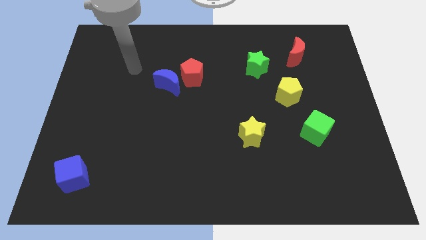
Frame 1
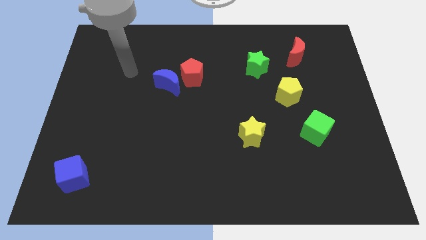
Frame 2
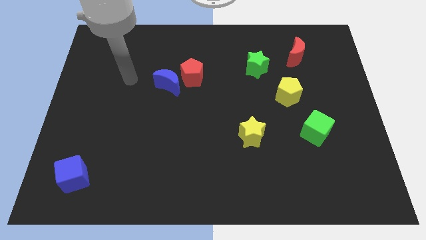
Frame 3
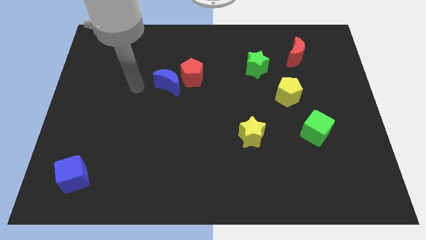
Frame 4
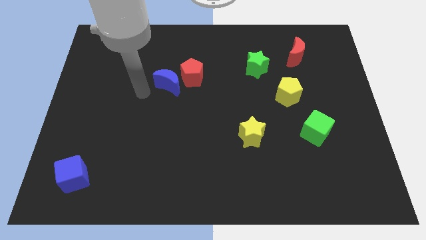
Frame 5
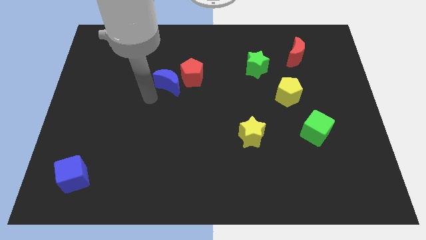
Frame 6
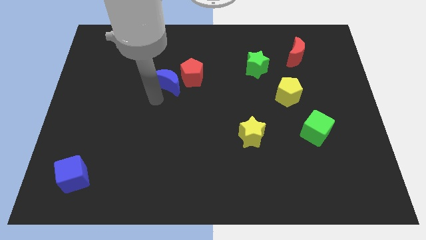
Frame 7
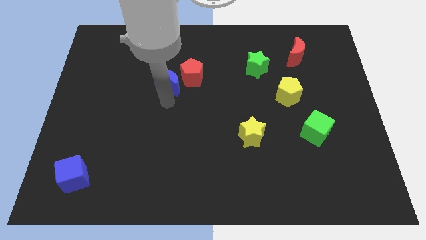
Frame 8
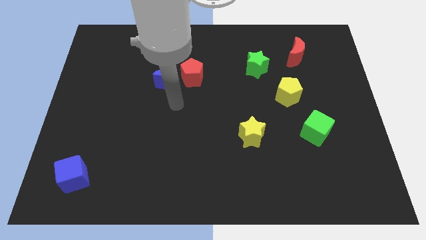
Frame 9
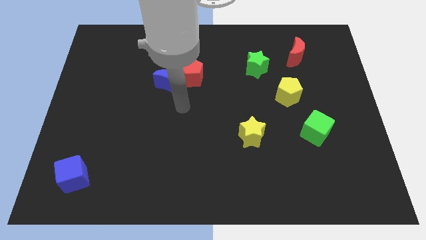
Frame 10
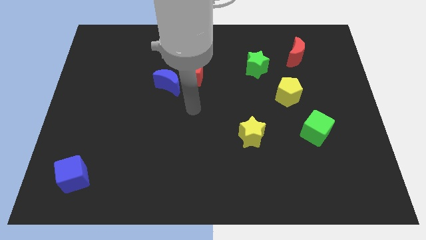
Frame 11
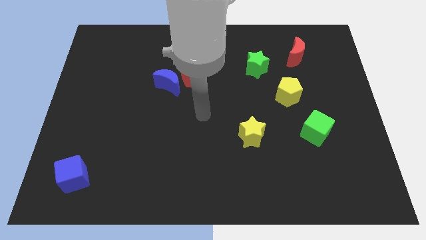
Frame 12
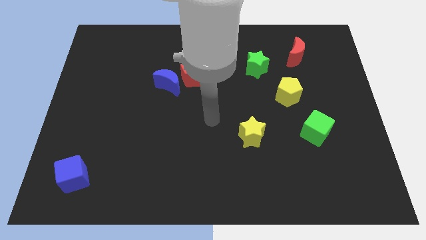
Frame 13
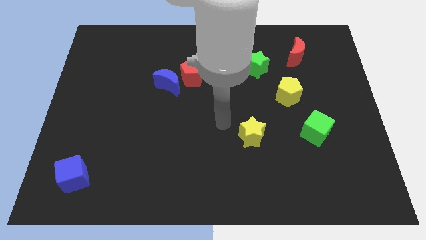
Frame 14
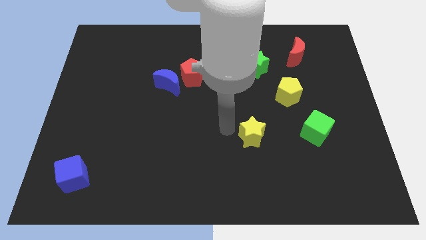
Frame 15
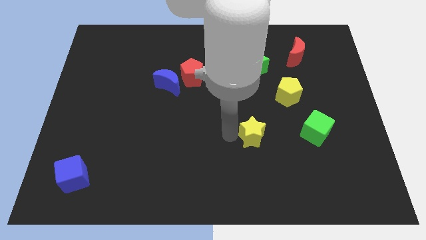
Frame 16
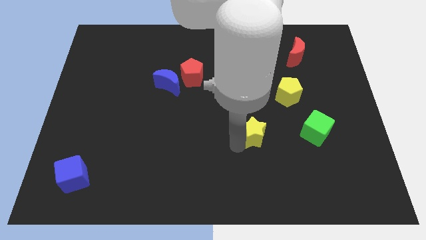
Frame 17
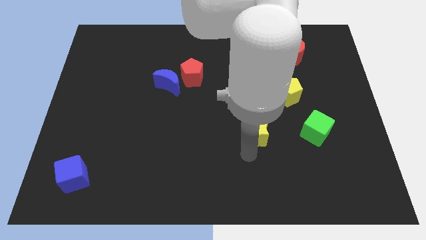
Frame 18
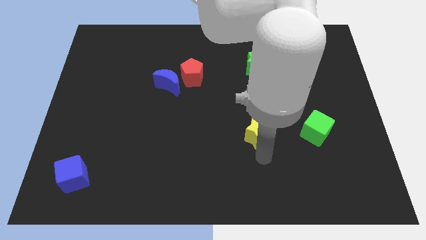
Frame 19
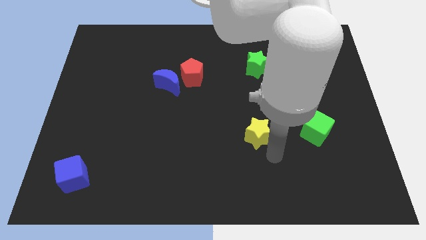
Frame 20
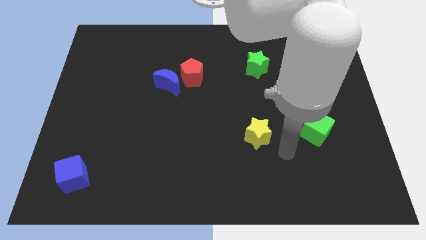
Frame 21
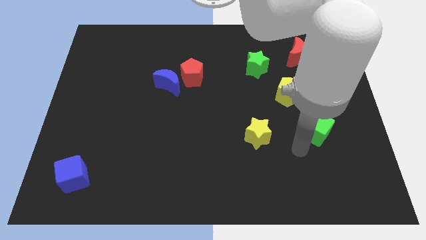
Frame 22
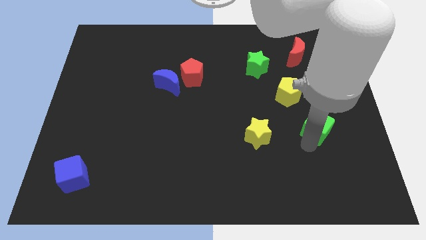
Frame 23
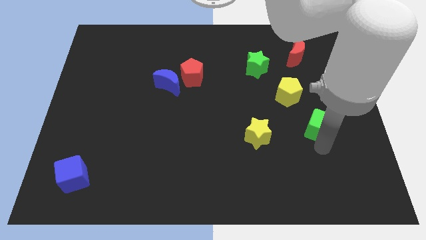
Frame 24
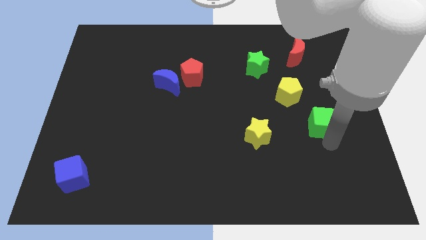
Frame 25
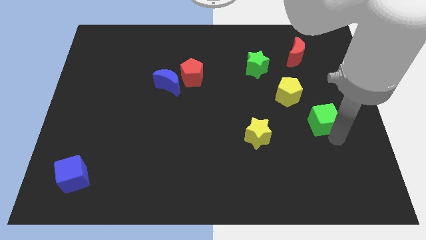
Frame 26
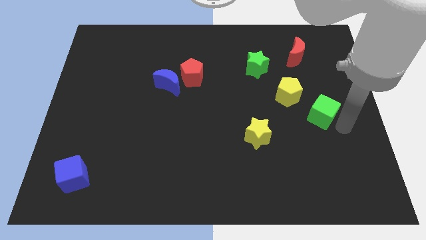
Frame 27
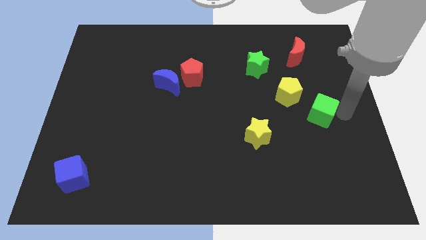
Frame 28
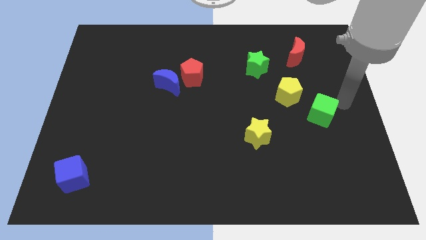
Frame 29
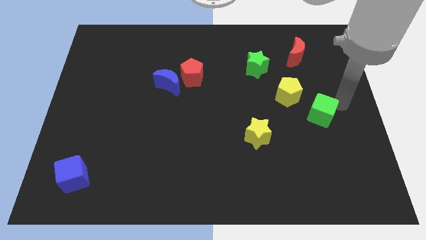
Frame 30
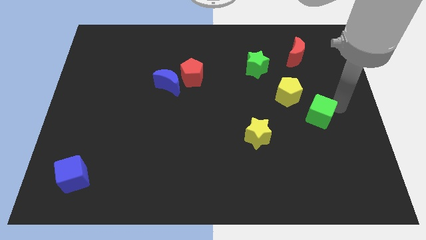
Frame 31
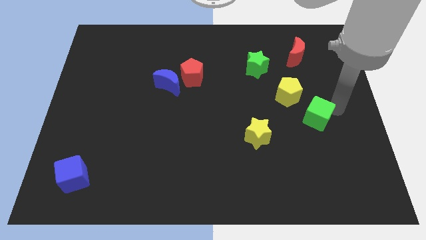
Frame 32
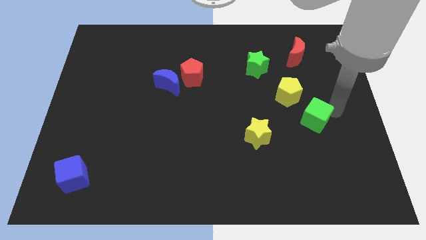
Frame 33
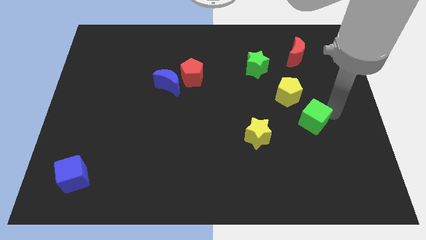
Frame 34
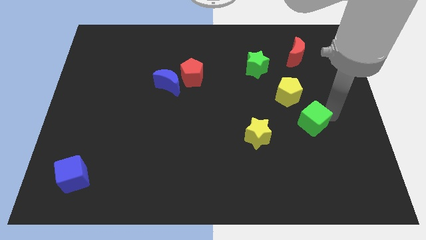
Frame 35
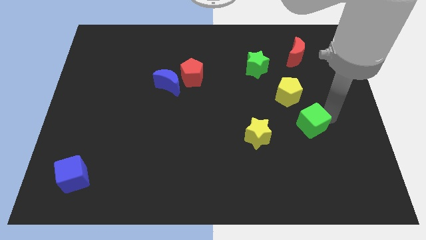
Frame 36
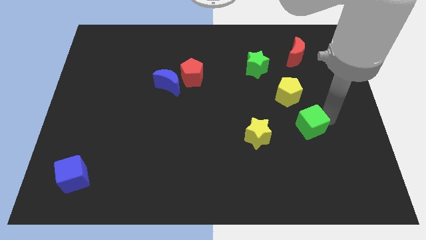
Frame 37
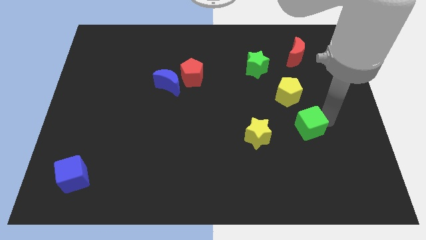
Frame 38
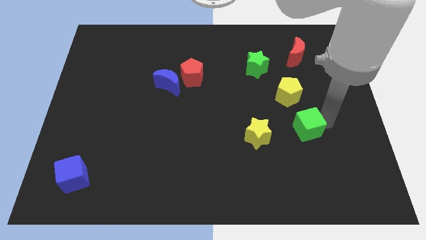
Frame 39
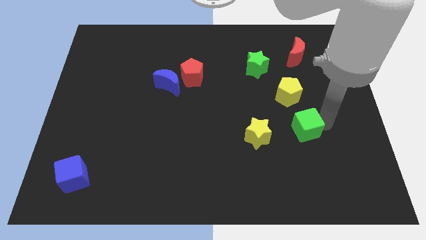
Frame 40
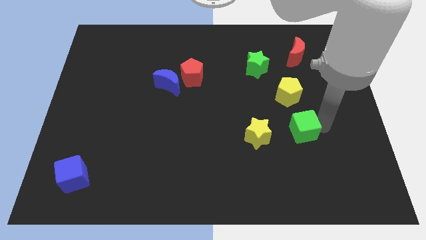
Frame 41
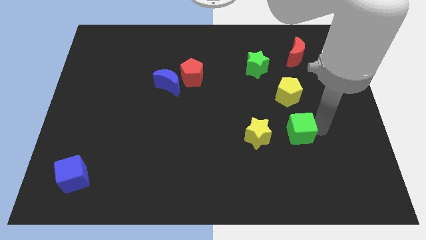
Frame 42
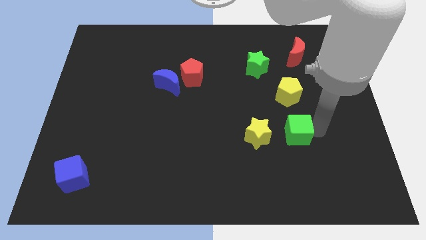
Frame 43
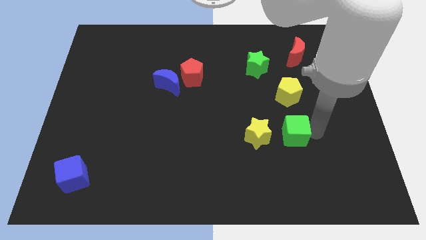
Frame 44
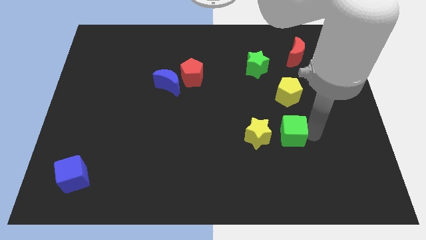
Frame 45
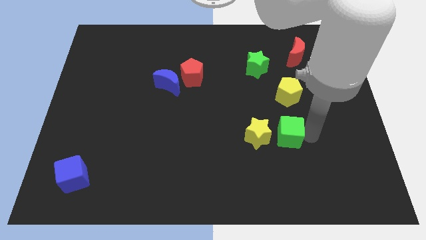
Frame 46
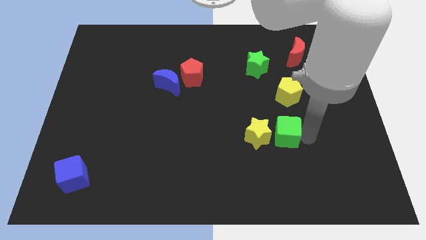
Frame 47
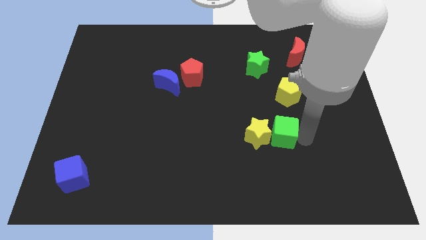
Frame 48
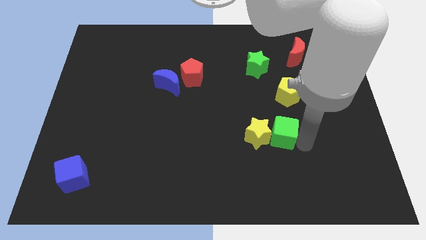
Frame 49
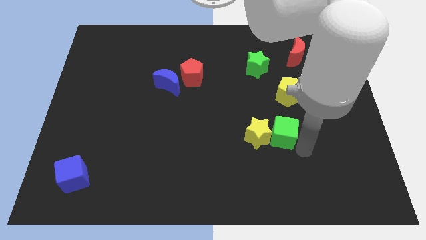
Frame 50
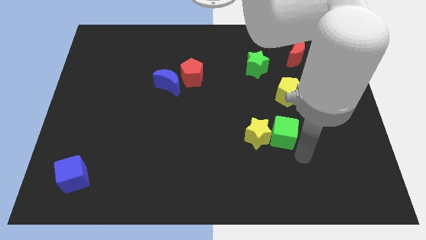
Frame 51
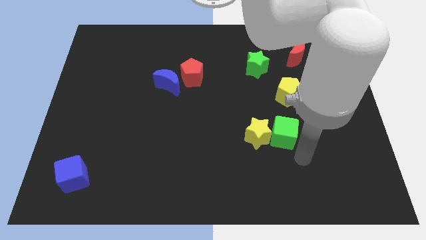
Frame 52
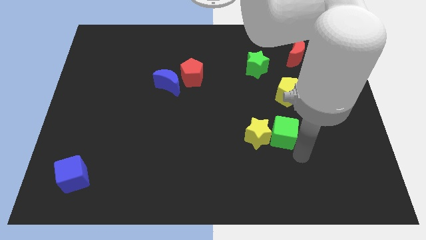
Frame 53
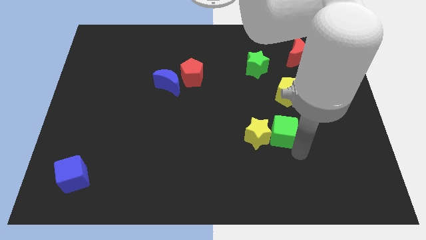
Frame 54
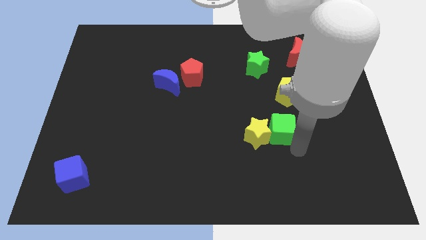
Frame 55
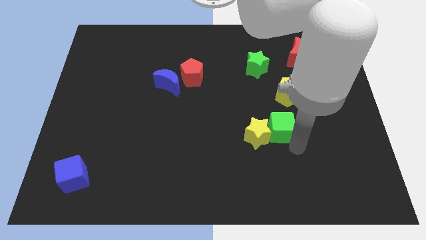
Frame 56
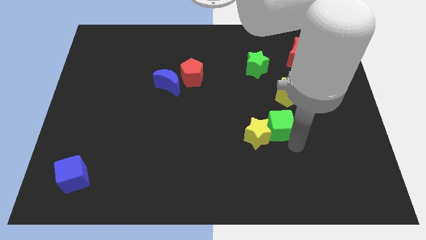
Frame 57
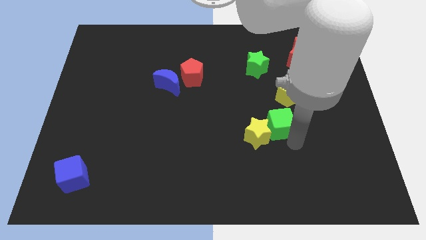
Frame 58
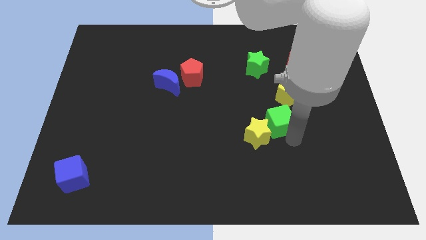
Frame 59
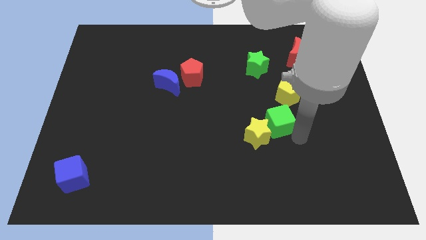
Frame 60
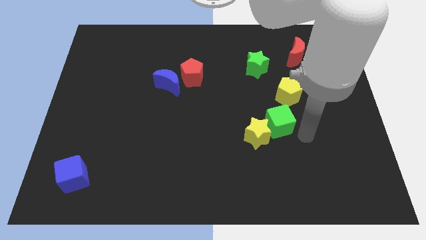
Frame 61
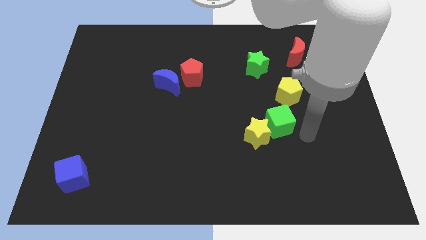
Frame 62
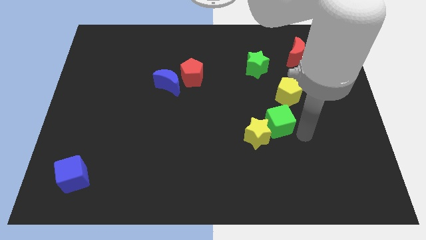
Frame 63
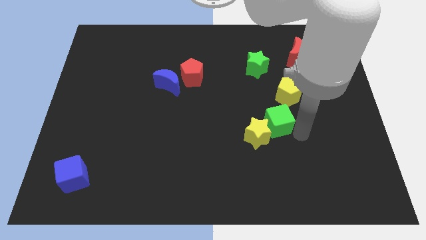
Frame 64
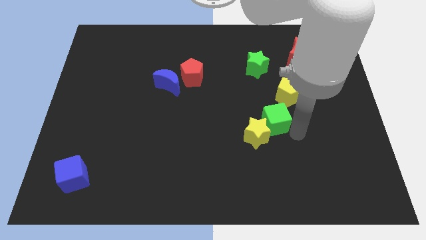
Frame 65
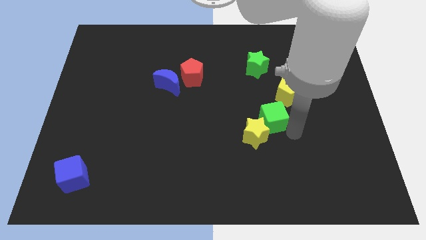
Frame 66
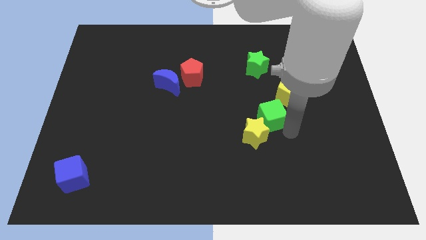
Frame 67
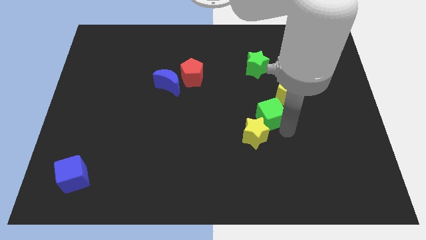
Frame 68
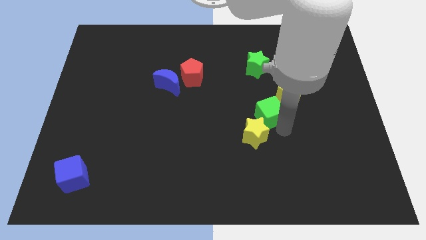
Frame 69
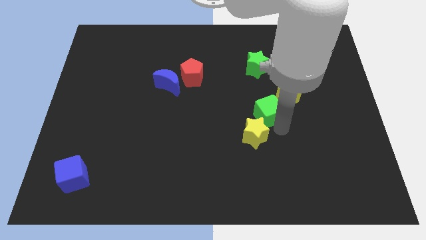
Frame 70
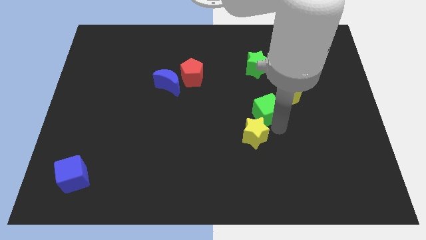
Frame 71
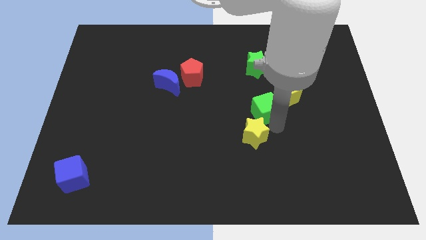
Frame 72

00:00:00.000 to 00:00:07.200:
push the green cube to the middle
